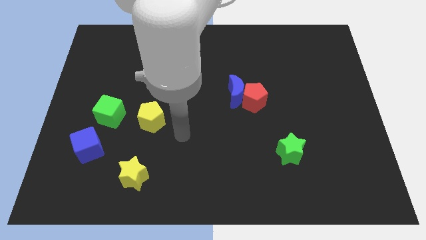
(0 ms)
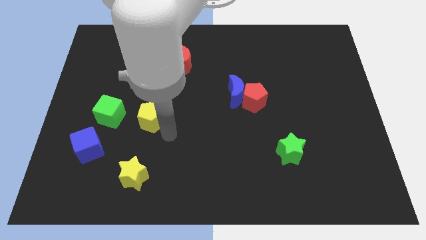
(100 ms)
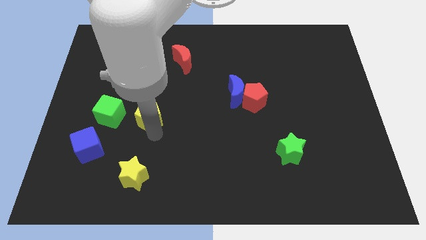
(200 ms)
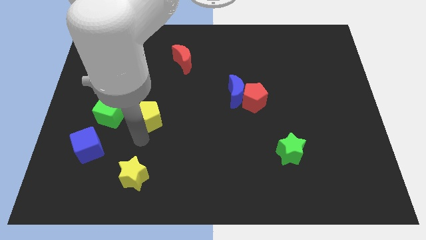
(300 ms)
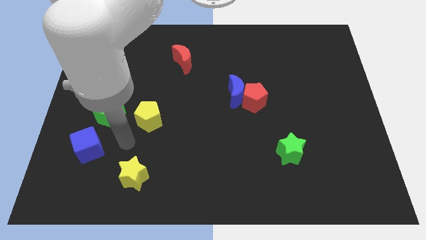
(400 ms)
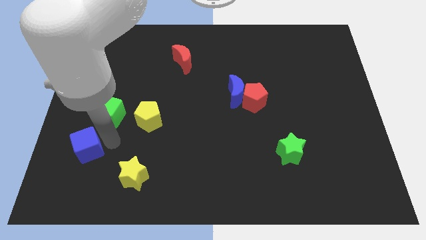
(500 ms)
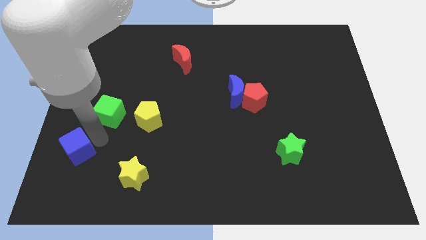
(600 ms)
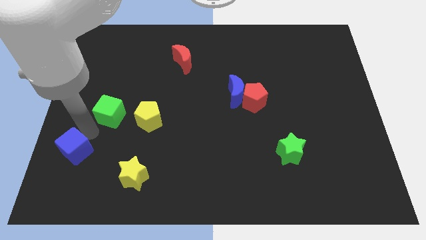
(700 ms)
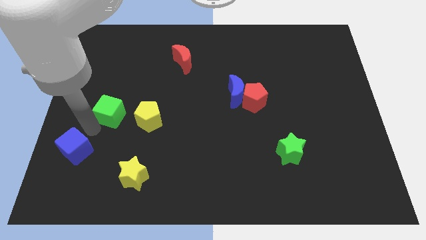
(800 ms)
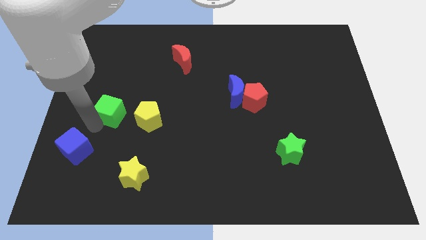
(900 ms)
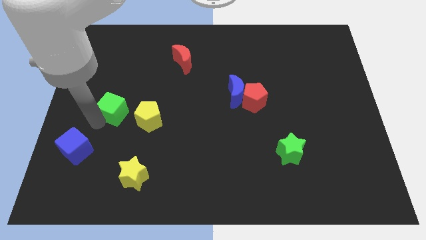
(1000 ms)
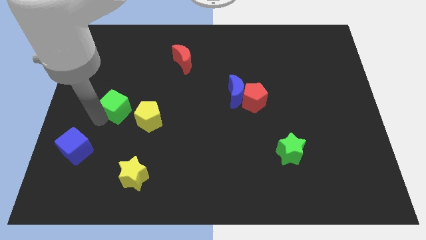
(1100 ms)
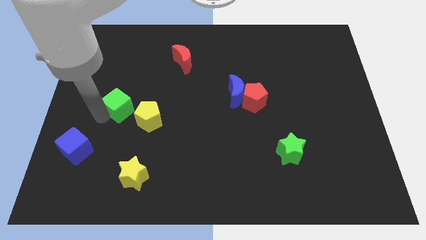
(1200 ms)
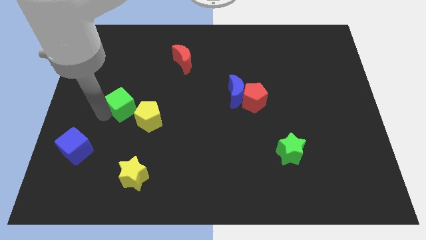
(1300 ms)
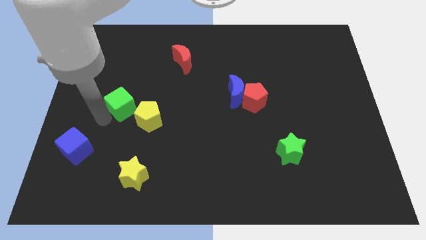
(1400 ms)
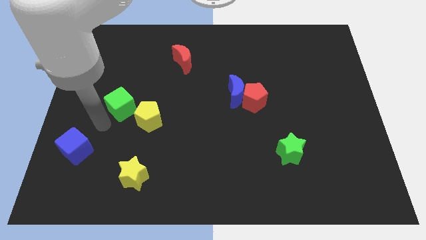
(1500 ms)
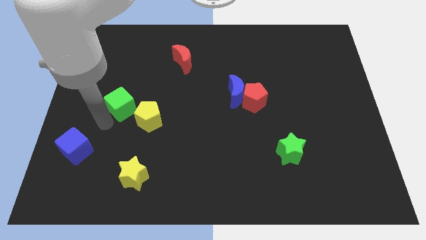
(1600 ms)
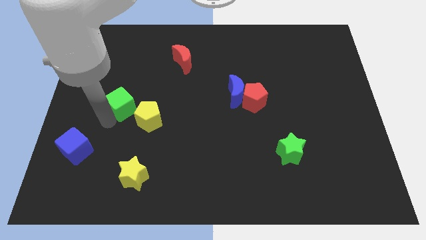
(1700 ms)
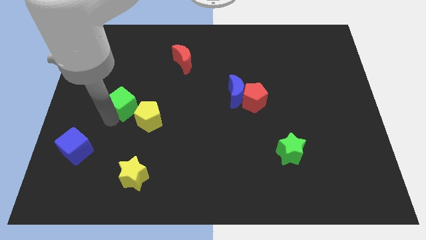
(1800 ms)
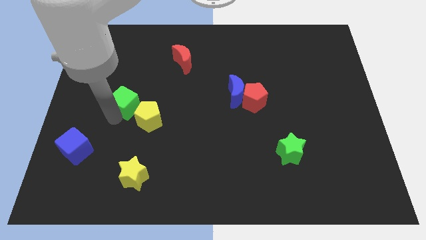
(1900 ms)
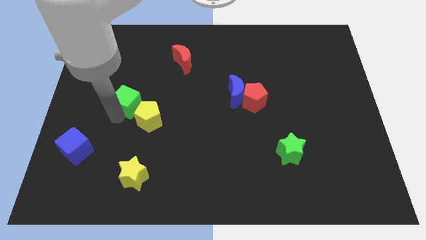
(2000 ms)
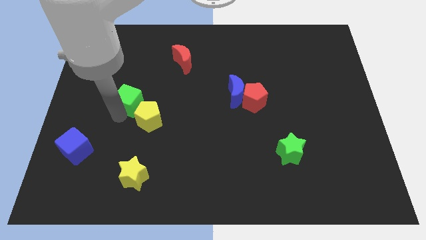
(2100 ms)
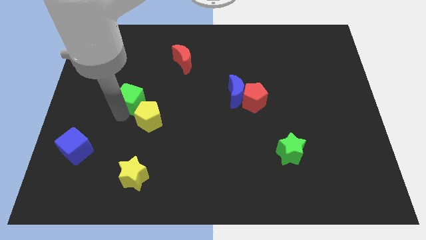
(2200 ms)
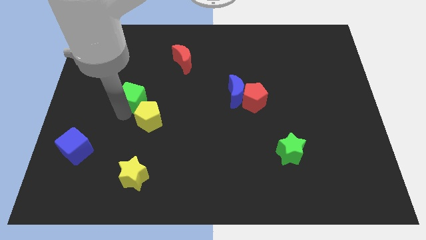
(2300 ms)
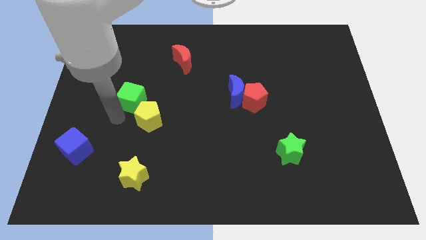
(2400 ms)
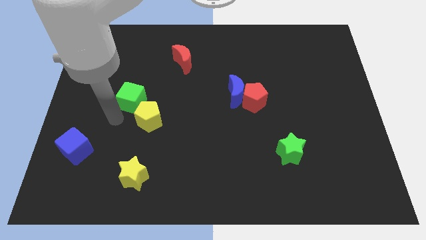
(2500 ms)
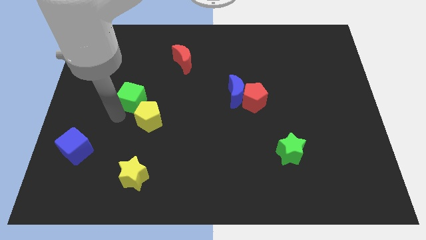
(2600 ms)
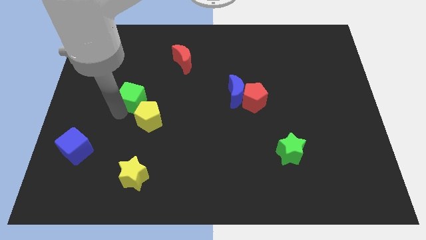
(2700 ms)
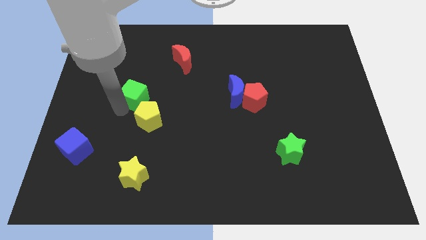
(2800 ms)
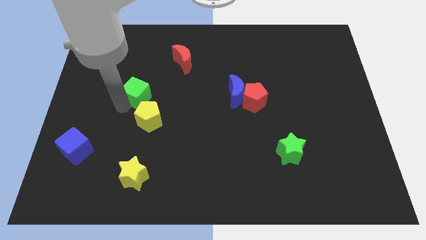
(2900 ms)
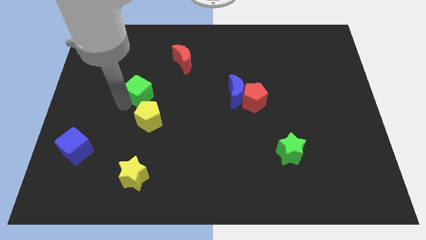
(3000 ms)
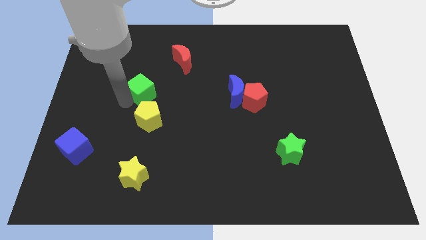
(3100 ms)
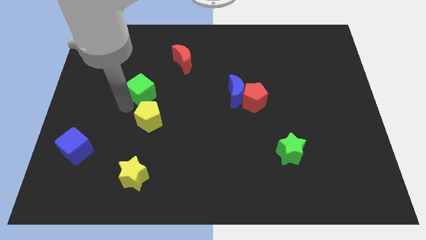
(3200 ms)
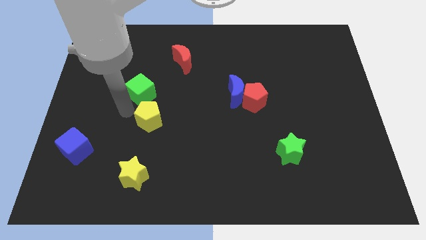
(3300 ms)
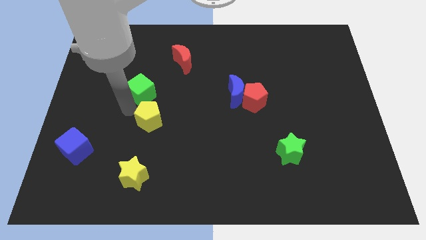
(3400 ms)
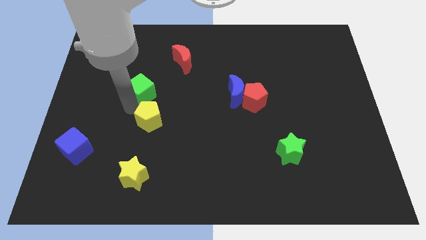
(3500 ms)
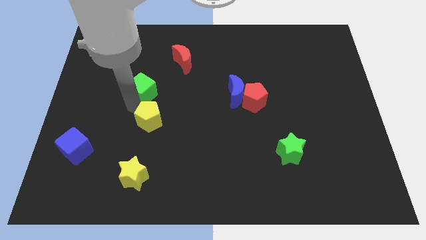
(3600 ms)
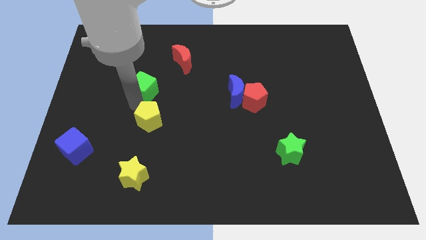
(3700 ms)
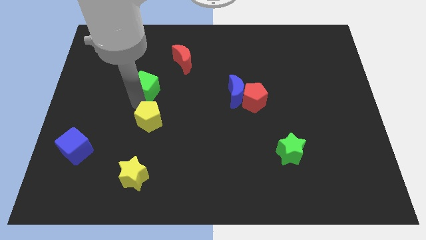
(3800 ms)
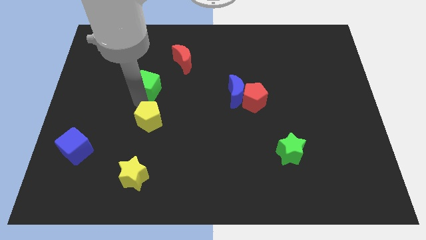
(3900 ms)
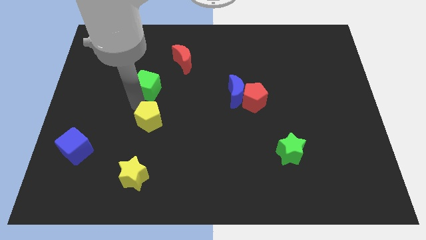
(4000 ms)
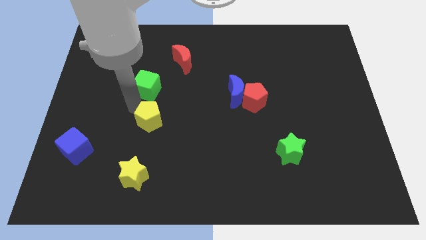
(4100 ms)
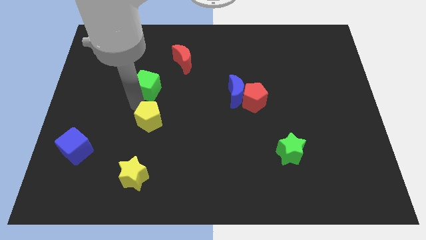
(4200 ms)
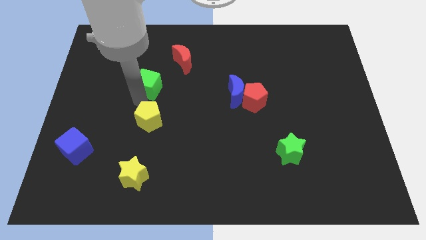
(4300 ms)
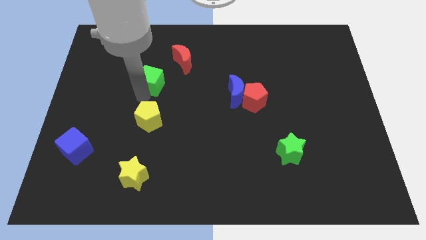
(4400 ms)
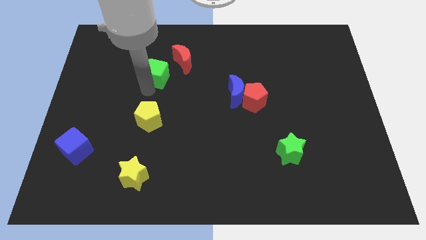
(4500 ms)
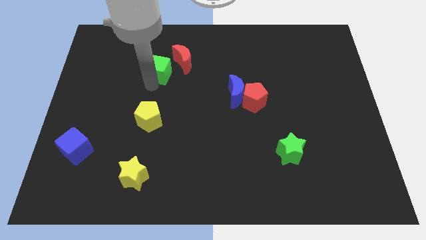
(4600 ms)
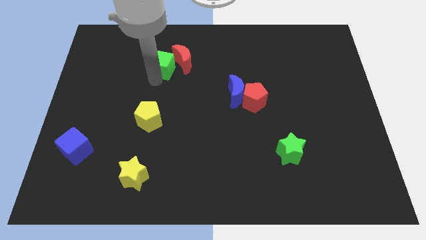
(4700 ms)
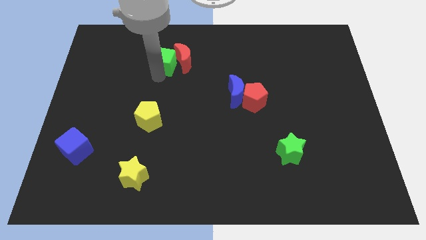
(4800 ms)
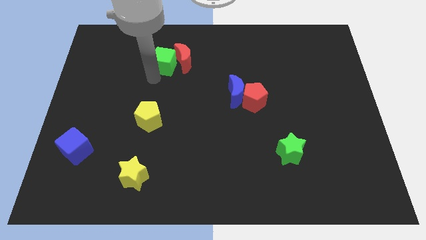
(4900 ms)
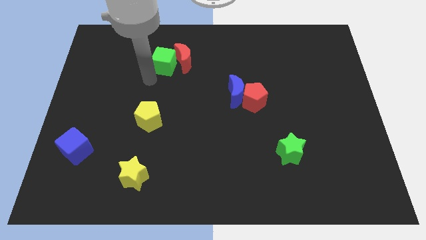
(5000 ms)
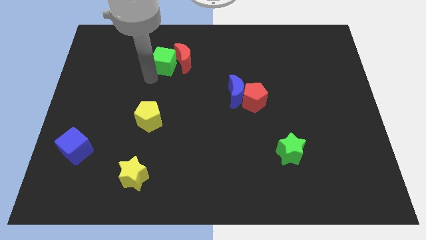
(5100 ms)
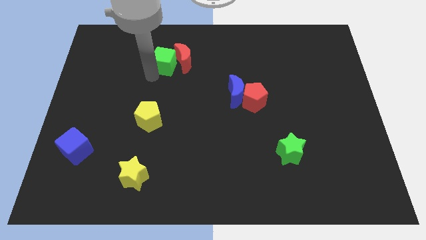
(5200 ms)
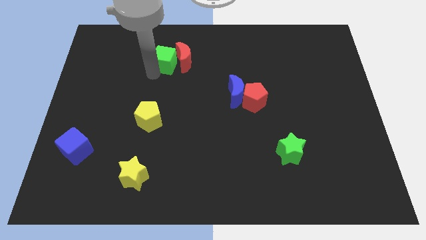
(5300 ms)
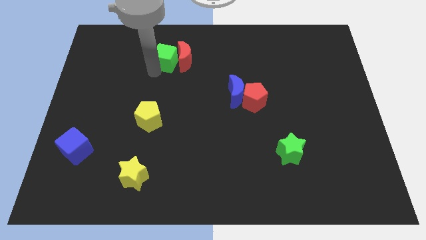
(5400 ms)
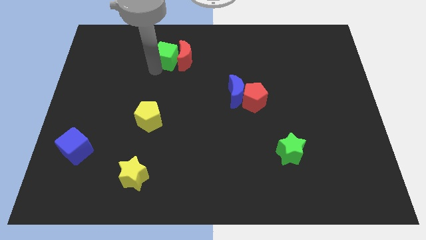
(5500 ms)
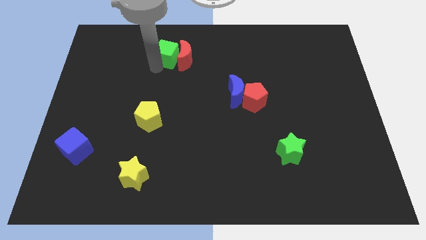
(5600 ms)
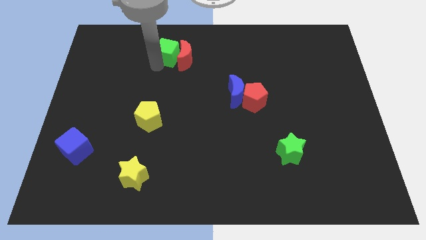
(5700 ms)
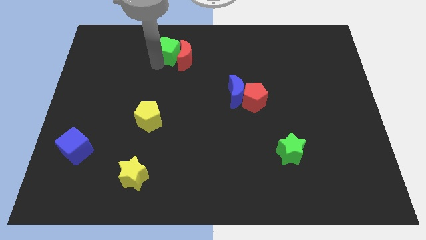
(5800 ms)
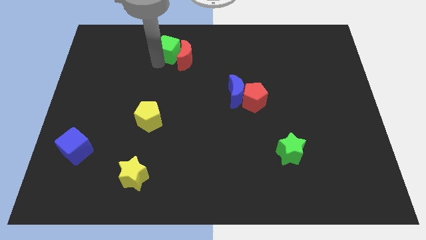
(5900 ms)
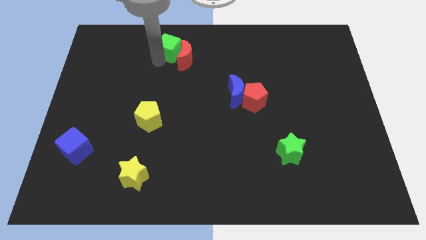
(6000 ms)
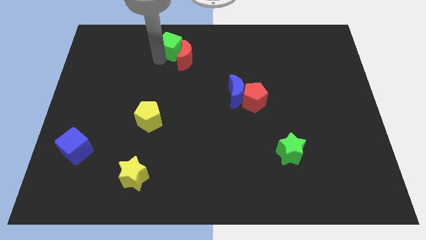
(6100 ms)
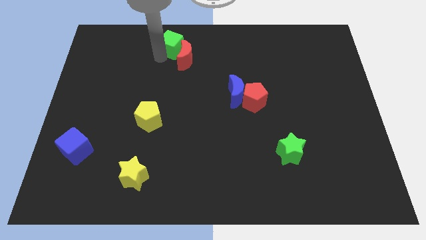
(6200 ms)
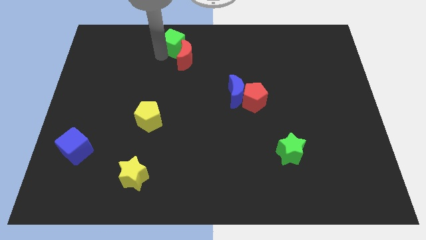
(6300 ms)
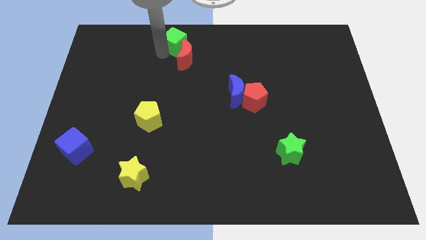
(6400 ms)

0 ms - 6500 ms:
move the green cube to the top
